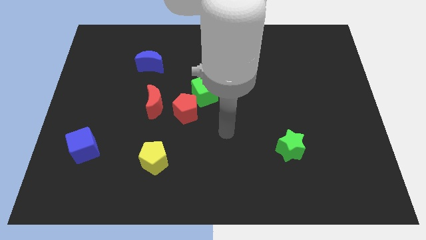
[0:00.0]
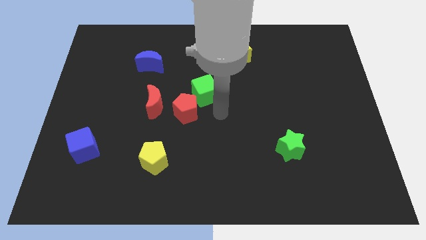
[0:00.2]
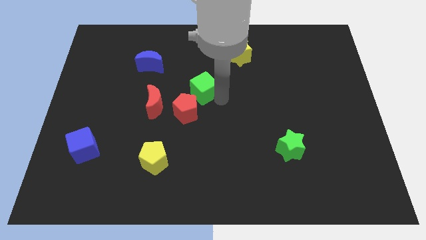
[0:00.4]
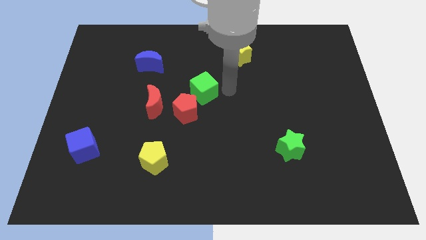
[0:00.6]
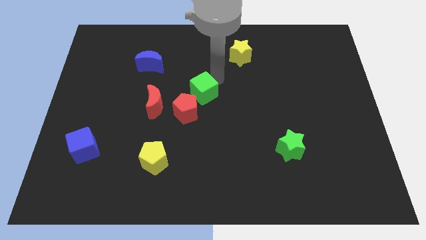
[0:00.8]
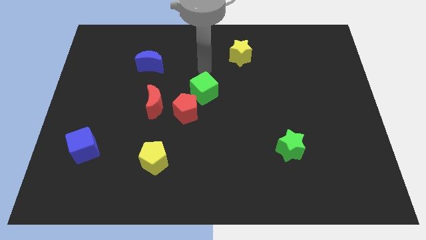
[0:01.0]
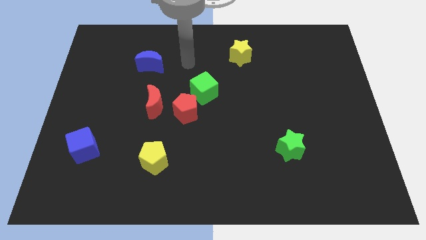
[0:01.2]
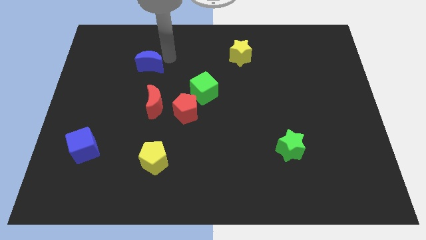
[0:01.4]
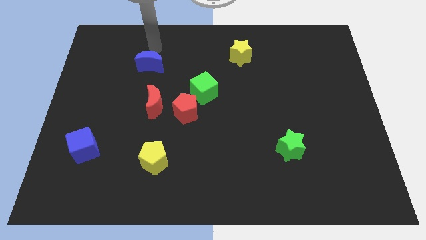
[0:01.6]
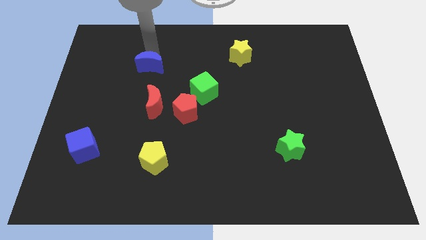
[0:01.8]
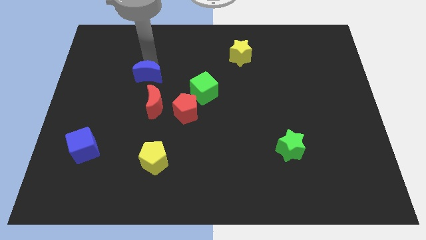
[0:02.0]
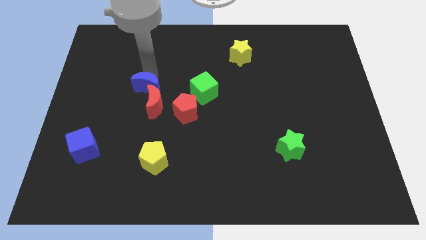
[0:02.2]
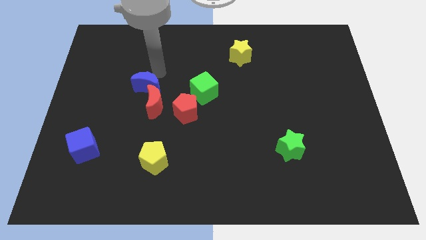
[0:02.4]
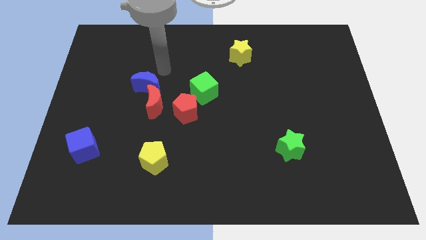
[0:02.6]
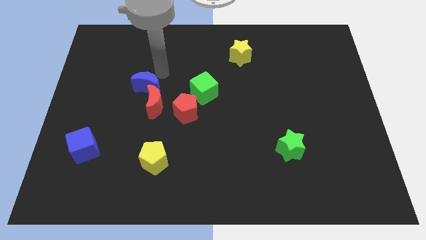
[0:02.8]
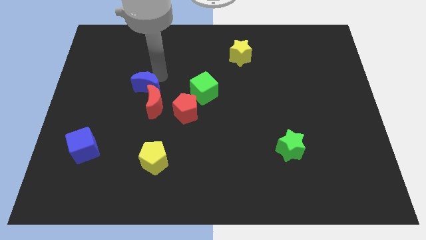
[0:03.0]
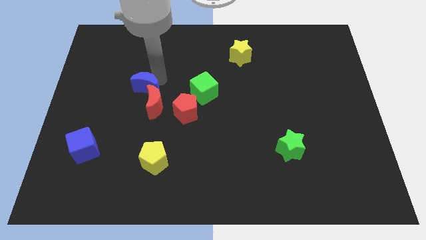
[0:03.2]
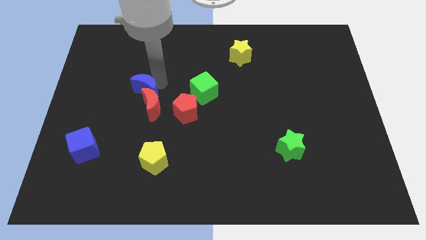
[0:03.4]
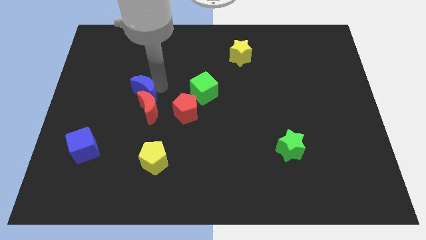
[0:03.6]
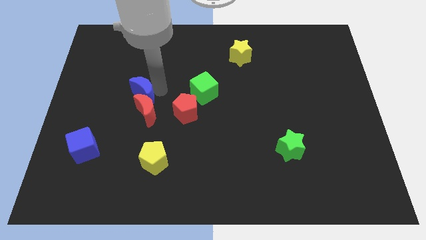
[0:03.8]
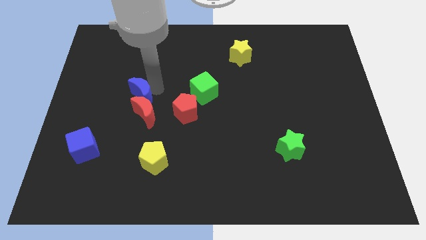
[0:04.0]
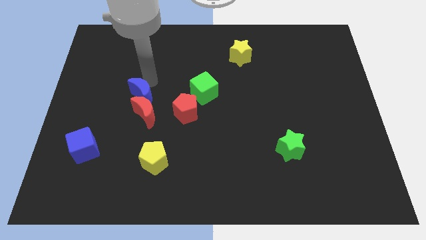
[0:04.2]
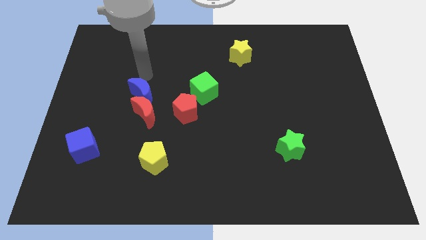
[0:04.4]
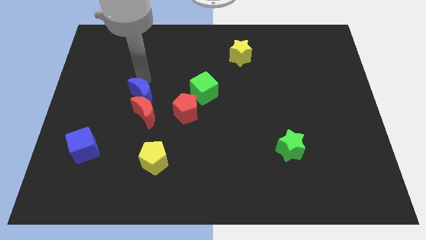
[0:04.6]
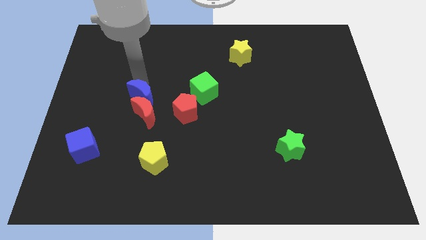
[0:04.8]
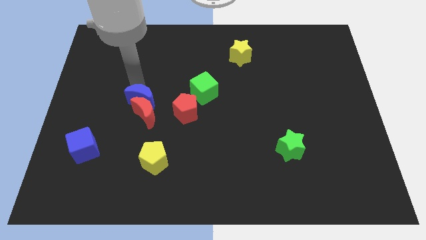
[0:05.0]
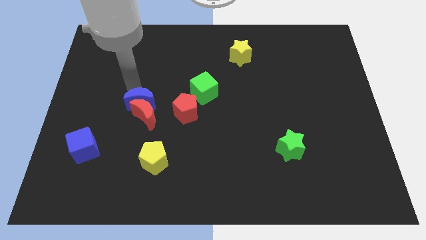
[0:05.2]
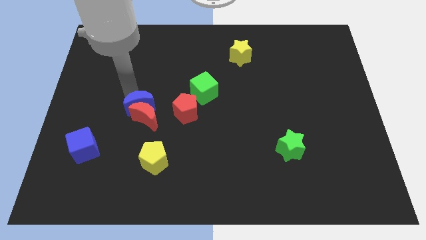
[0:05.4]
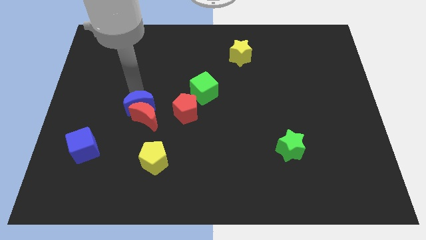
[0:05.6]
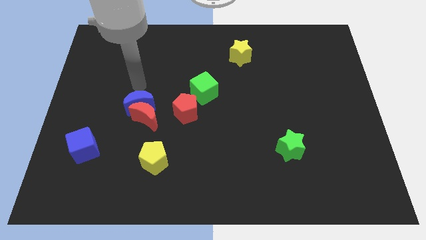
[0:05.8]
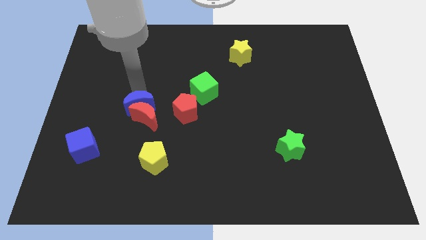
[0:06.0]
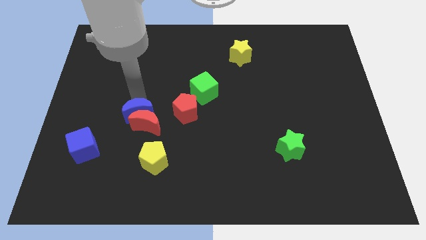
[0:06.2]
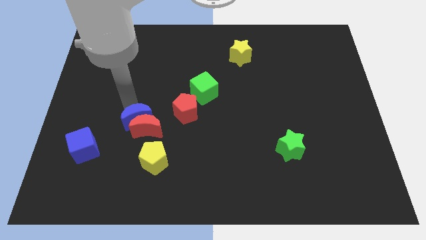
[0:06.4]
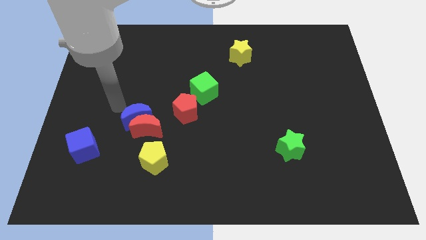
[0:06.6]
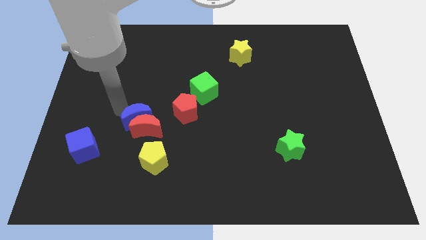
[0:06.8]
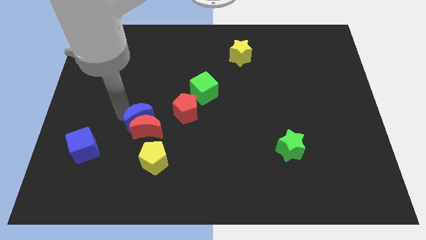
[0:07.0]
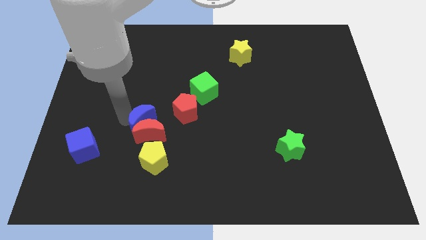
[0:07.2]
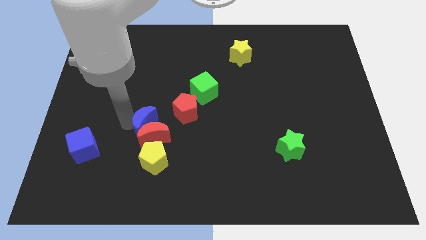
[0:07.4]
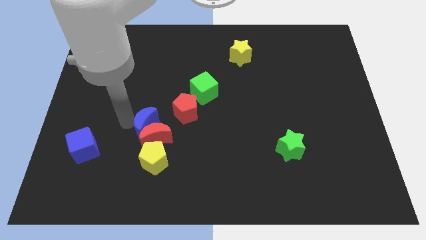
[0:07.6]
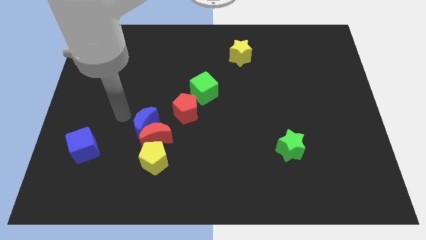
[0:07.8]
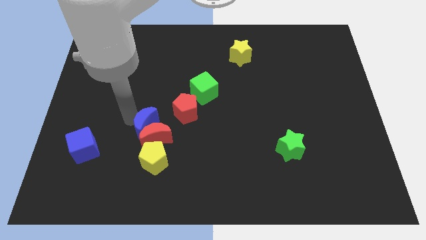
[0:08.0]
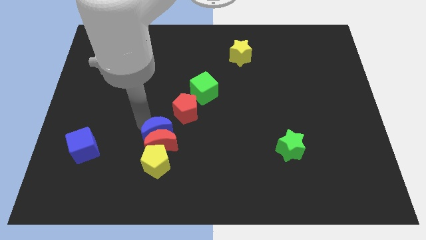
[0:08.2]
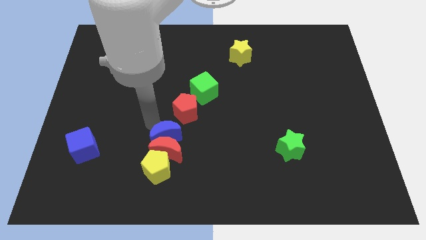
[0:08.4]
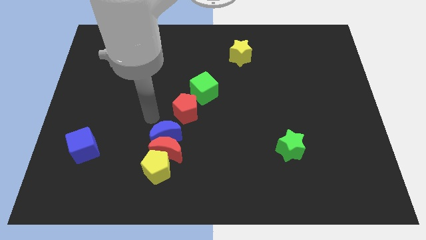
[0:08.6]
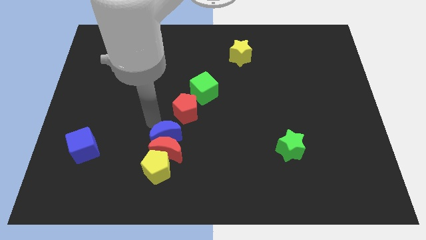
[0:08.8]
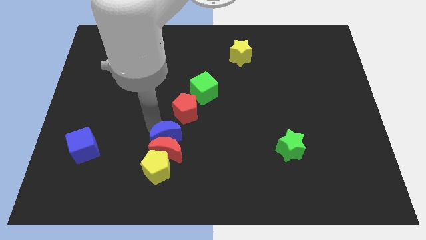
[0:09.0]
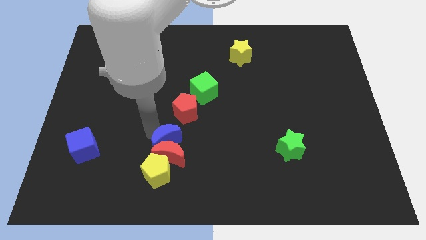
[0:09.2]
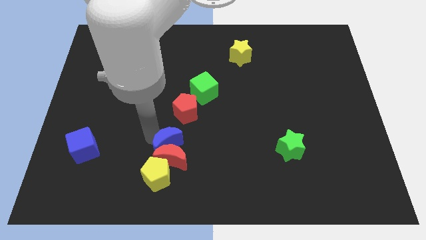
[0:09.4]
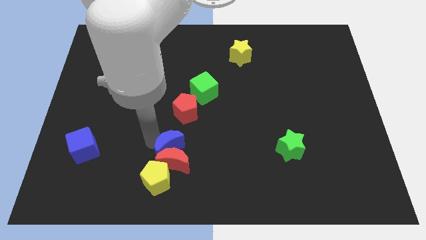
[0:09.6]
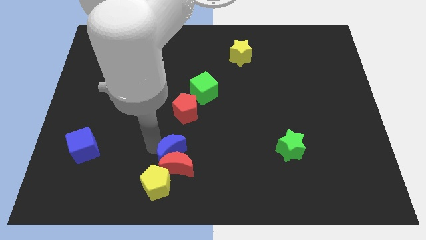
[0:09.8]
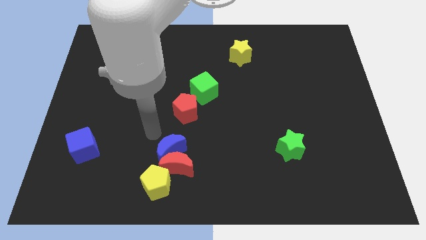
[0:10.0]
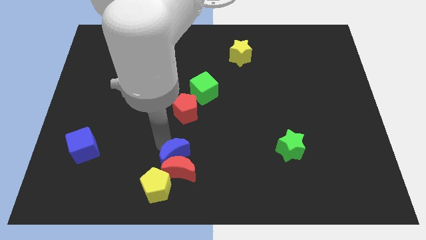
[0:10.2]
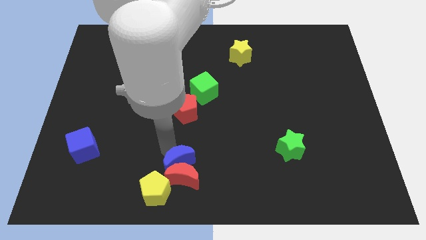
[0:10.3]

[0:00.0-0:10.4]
slide the blue moon to the bottom side

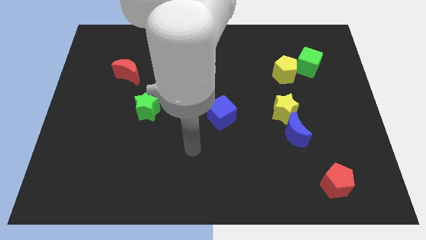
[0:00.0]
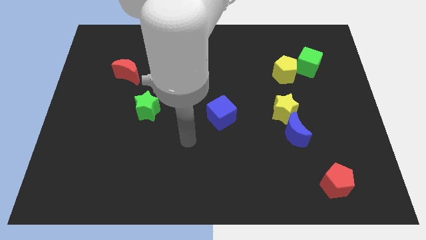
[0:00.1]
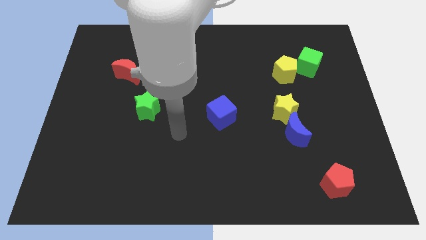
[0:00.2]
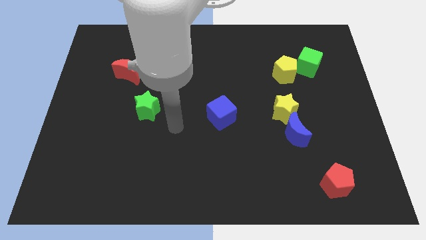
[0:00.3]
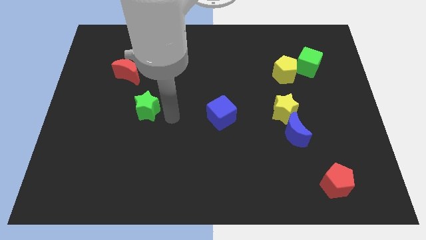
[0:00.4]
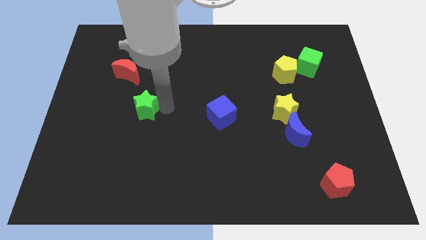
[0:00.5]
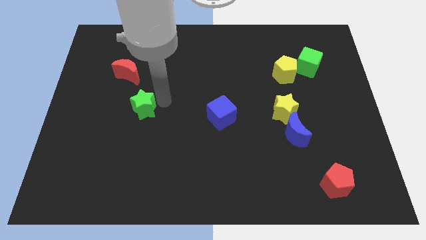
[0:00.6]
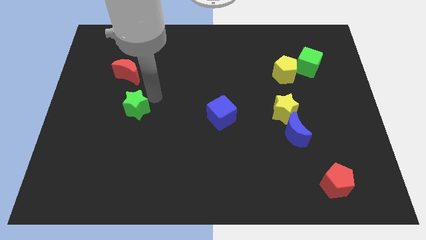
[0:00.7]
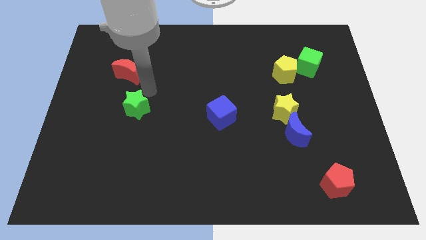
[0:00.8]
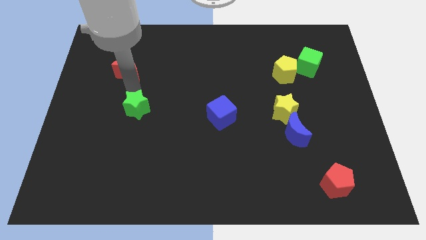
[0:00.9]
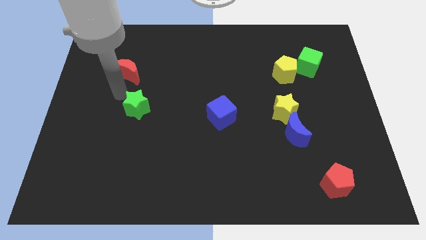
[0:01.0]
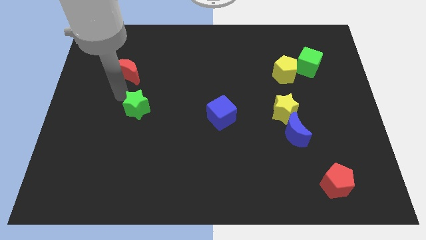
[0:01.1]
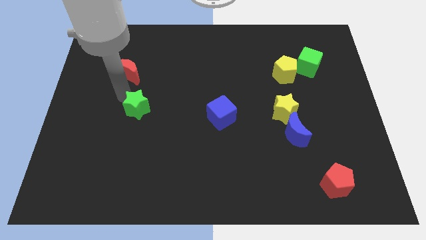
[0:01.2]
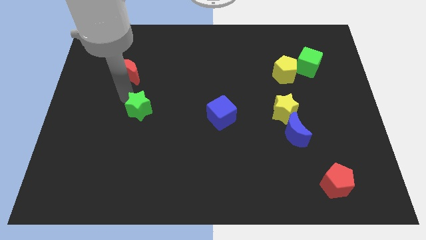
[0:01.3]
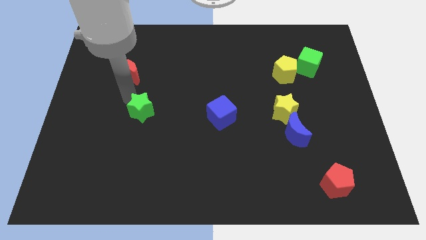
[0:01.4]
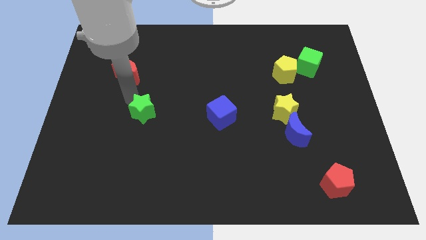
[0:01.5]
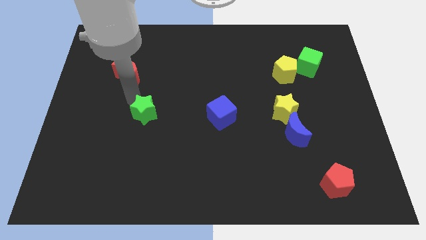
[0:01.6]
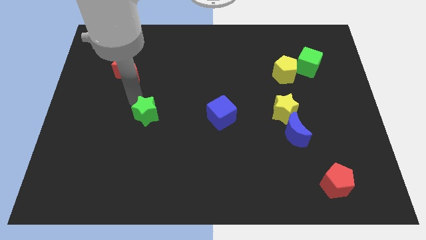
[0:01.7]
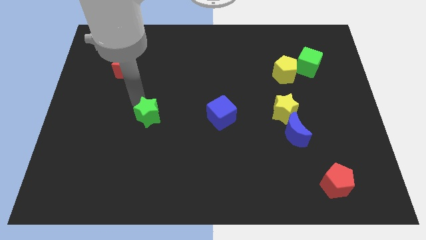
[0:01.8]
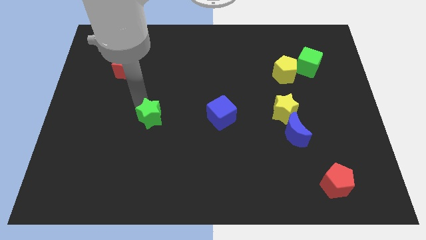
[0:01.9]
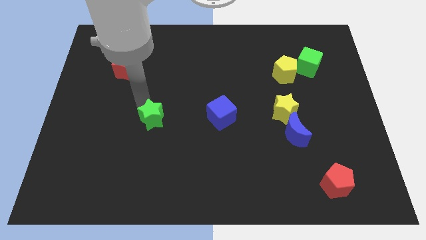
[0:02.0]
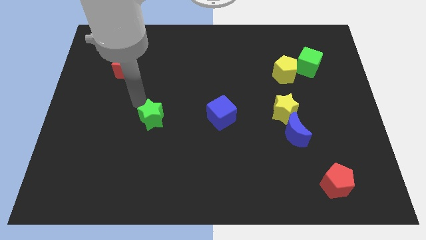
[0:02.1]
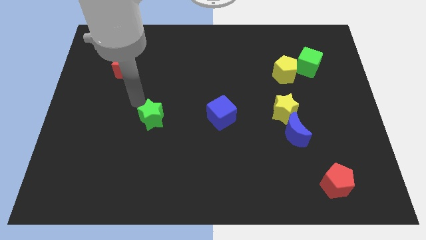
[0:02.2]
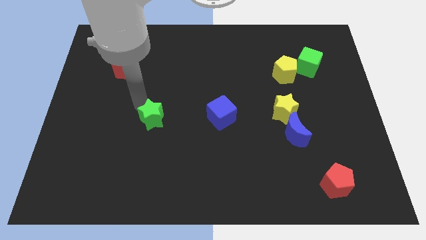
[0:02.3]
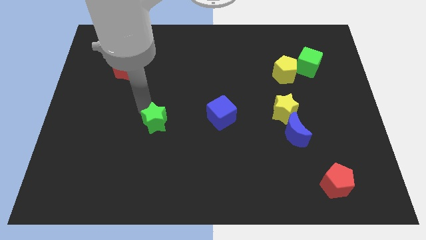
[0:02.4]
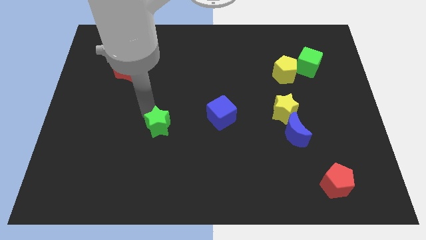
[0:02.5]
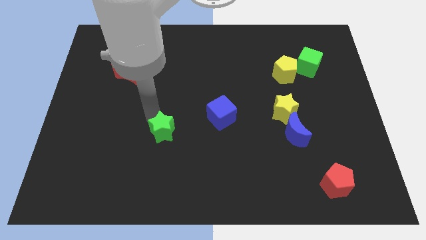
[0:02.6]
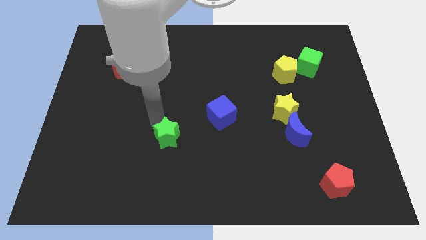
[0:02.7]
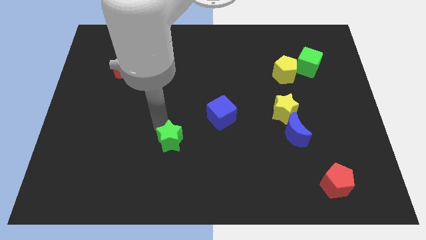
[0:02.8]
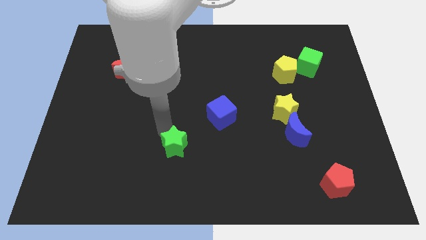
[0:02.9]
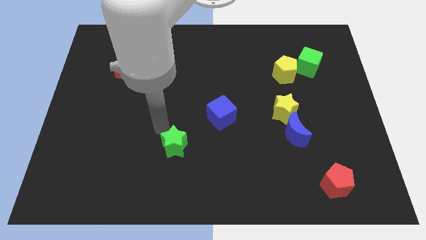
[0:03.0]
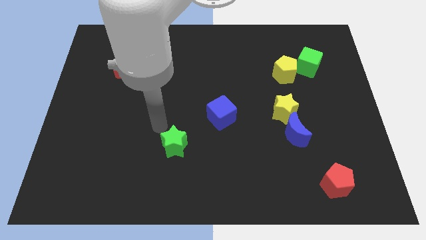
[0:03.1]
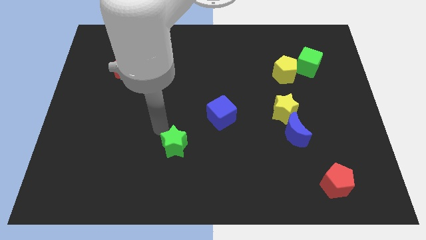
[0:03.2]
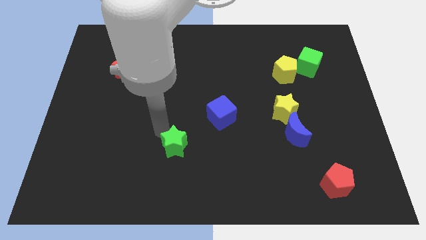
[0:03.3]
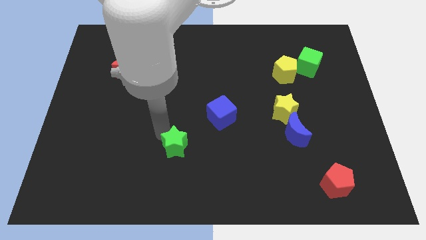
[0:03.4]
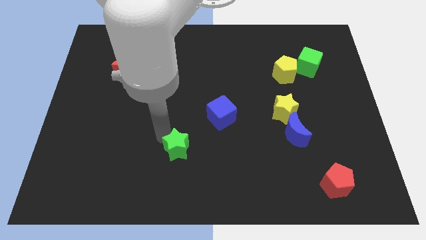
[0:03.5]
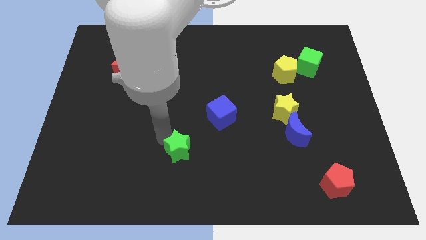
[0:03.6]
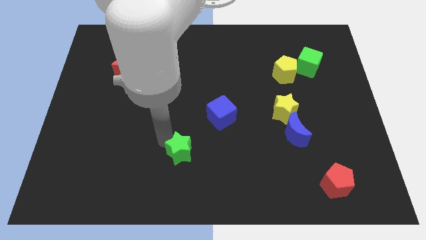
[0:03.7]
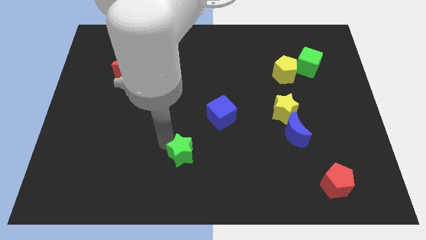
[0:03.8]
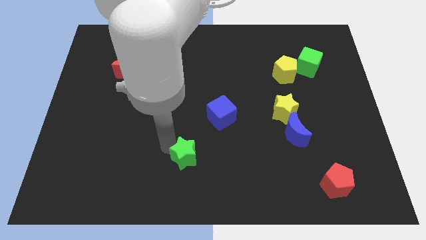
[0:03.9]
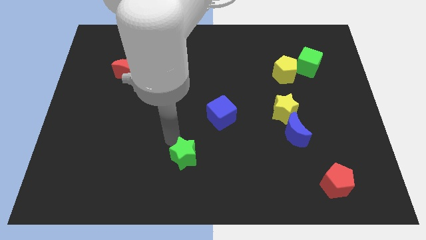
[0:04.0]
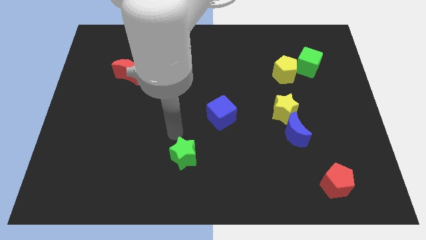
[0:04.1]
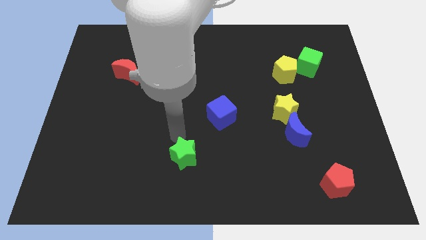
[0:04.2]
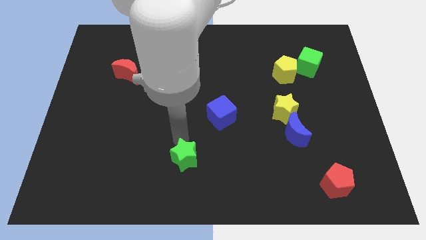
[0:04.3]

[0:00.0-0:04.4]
slide the green star to the bottom
